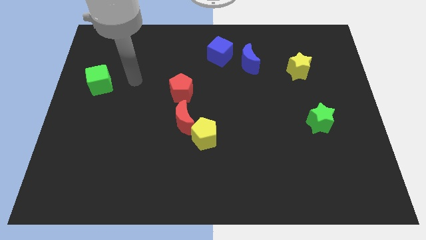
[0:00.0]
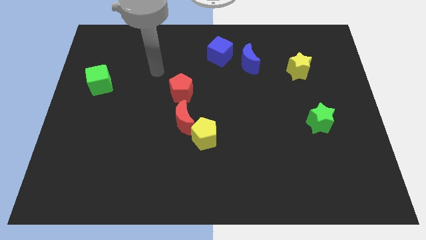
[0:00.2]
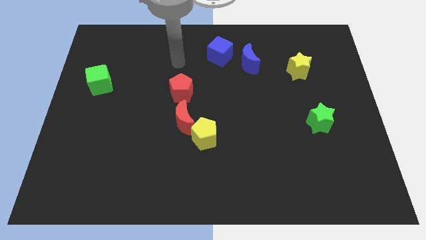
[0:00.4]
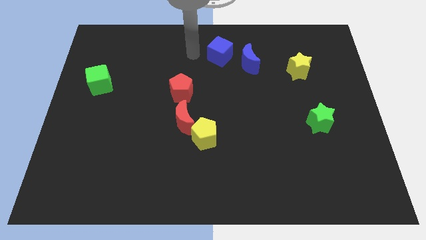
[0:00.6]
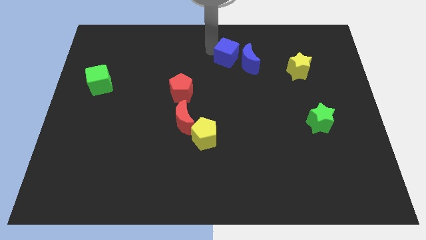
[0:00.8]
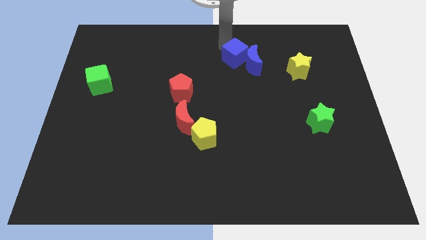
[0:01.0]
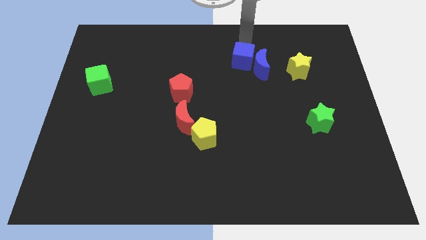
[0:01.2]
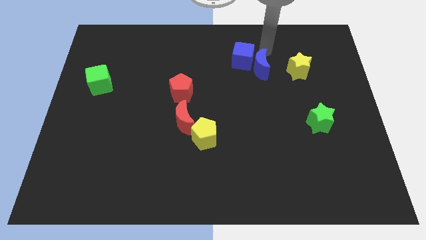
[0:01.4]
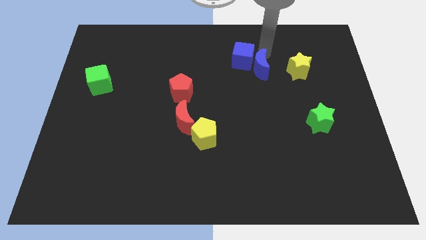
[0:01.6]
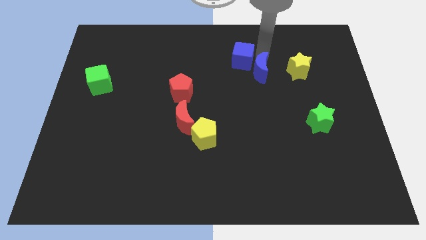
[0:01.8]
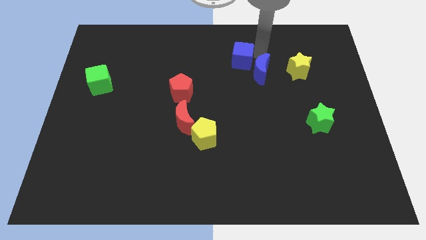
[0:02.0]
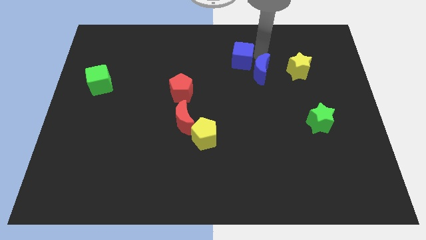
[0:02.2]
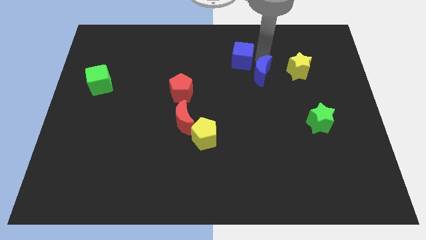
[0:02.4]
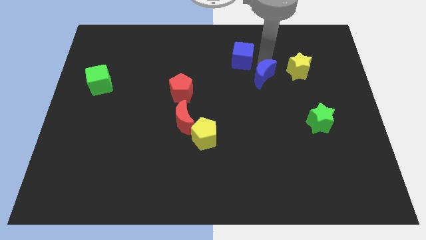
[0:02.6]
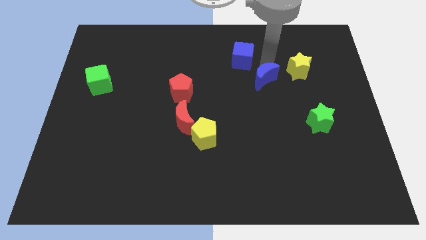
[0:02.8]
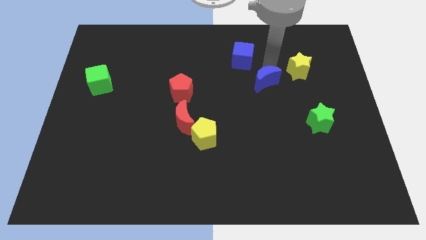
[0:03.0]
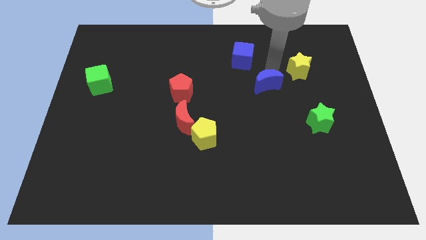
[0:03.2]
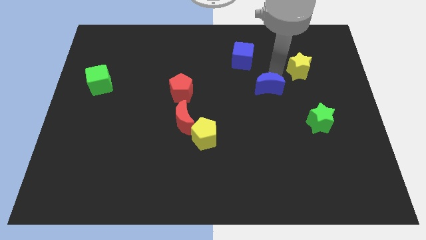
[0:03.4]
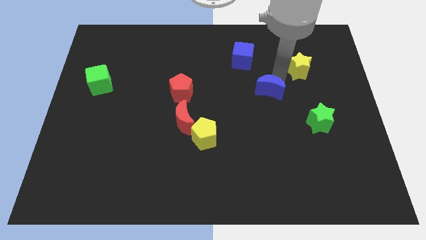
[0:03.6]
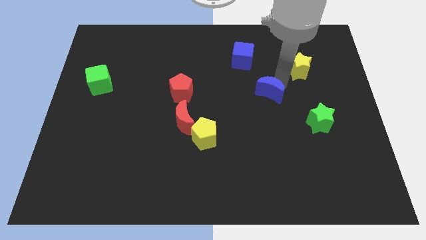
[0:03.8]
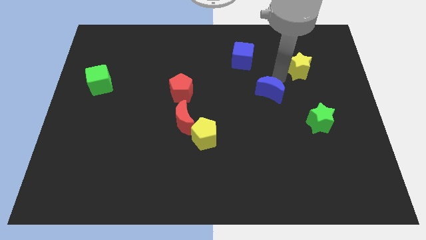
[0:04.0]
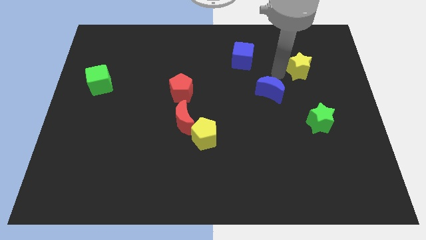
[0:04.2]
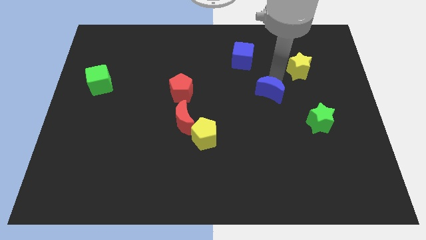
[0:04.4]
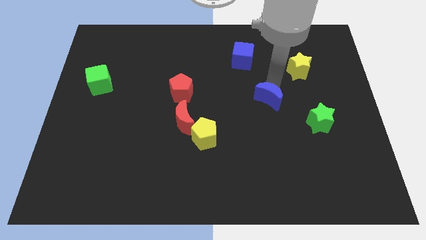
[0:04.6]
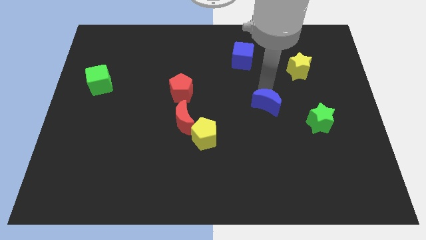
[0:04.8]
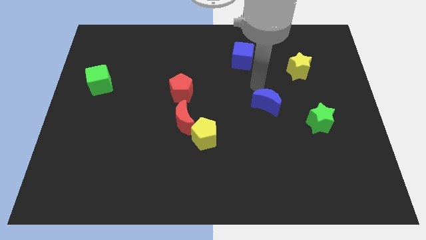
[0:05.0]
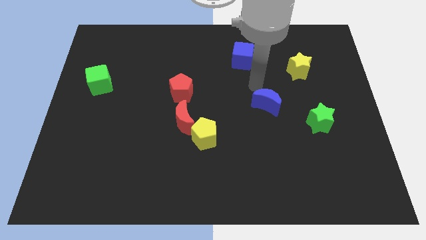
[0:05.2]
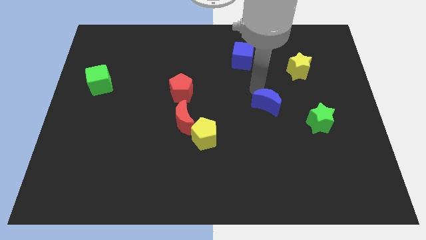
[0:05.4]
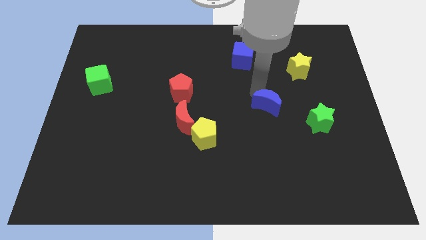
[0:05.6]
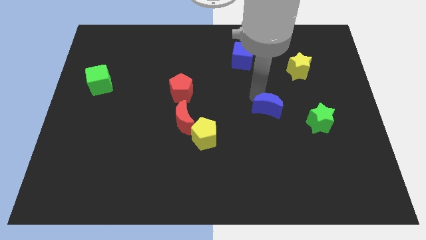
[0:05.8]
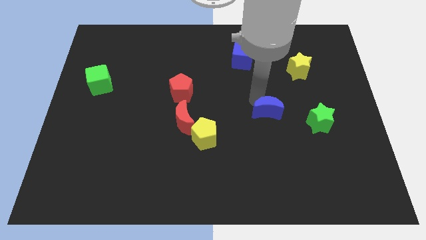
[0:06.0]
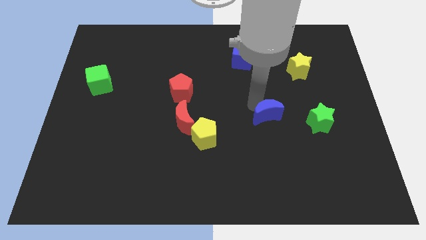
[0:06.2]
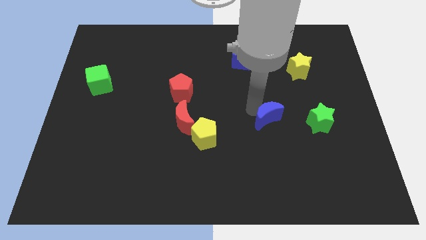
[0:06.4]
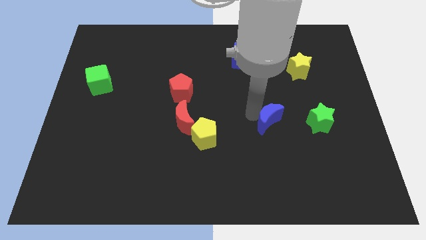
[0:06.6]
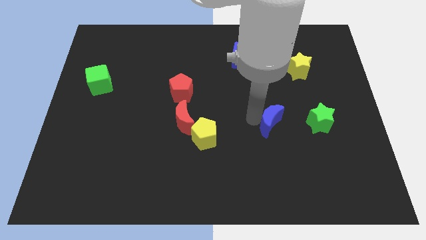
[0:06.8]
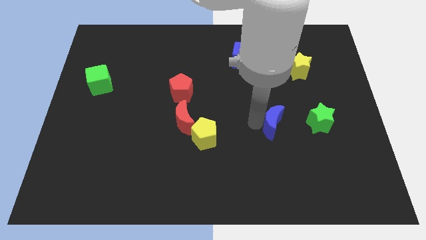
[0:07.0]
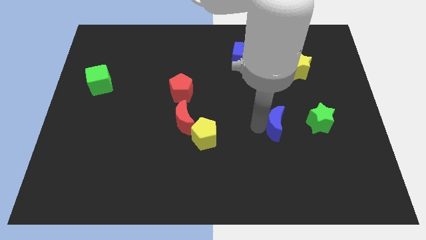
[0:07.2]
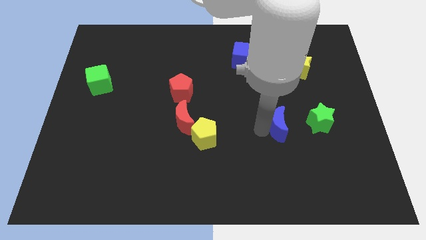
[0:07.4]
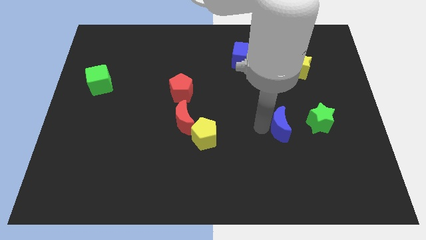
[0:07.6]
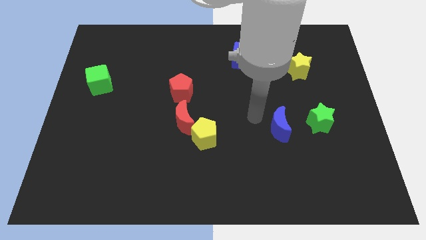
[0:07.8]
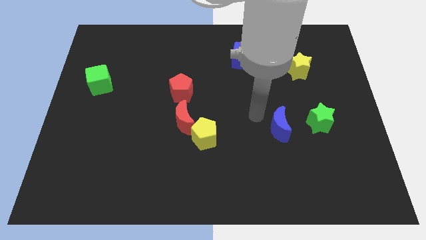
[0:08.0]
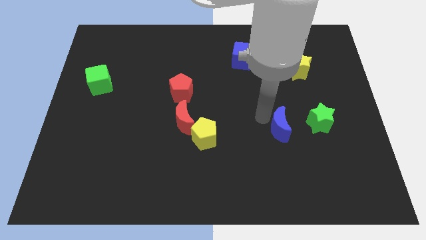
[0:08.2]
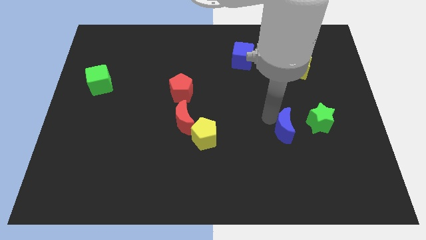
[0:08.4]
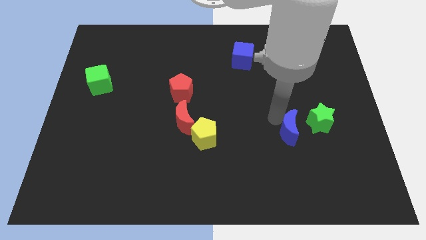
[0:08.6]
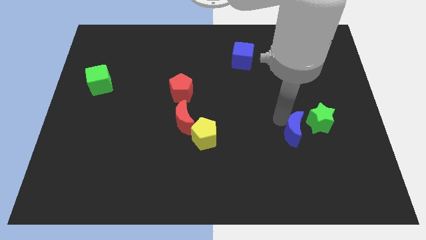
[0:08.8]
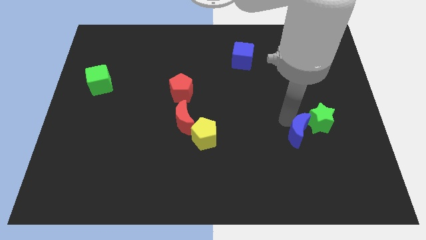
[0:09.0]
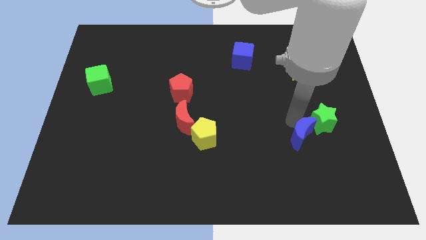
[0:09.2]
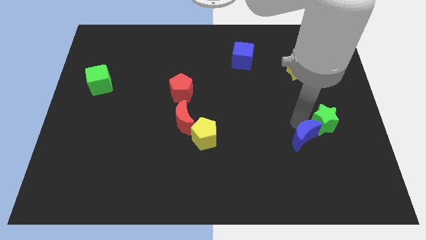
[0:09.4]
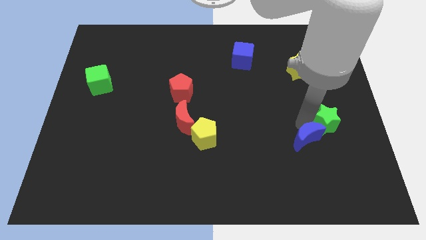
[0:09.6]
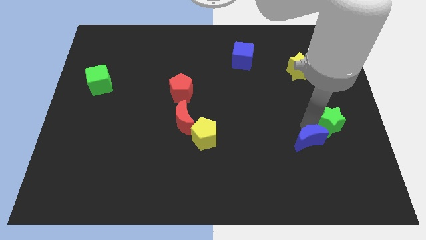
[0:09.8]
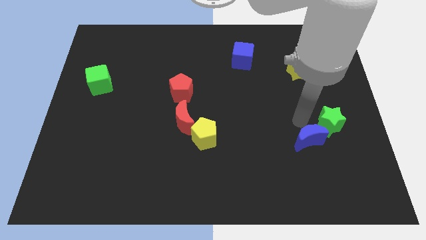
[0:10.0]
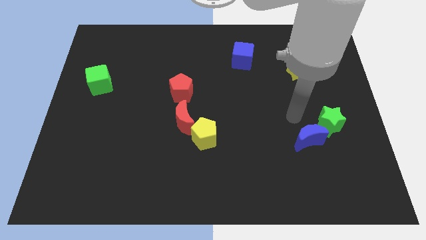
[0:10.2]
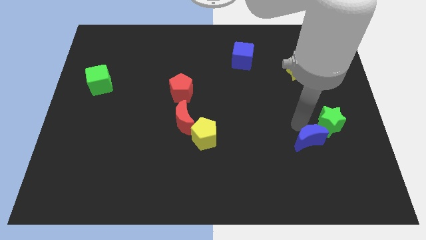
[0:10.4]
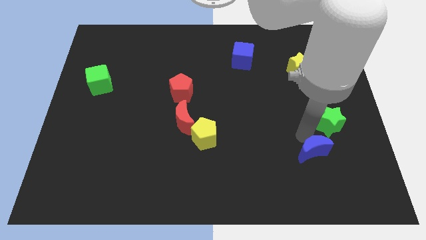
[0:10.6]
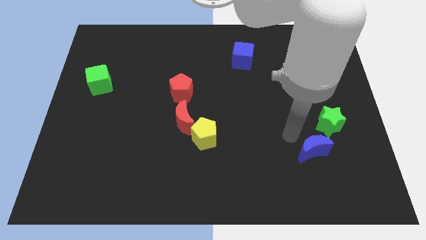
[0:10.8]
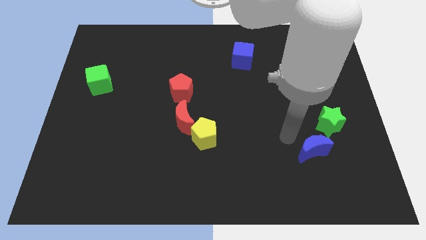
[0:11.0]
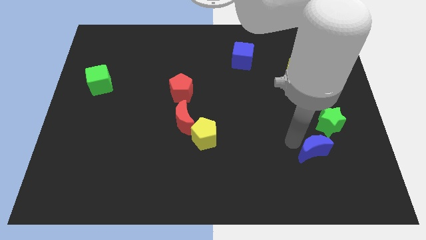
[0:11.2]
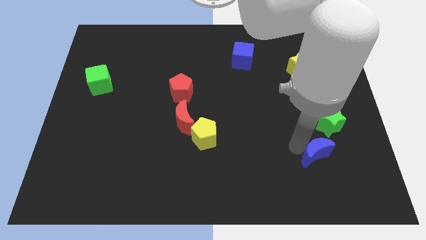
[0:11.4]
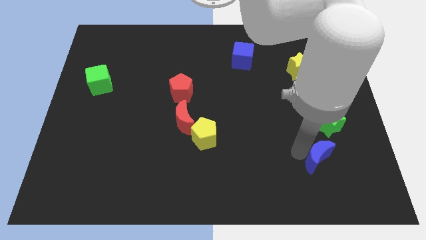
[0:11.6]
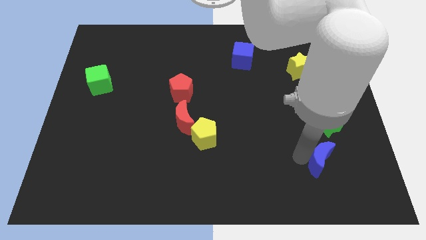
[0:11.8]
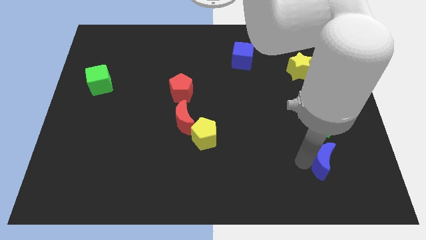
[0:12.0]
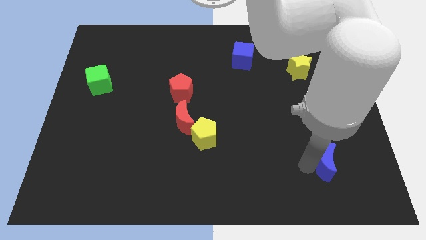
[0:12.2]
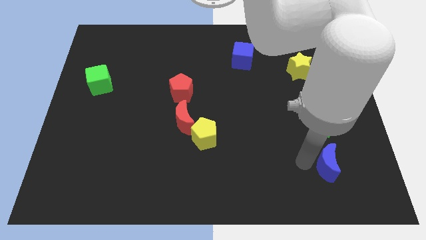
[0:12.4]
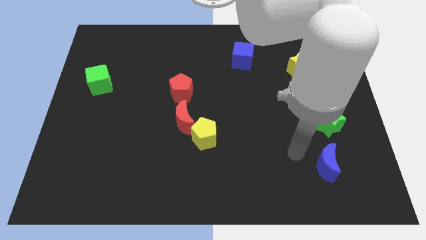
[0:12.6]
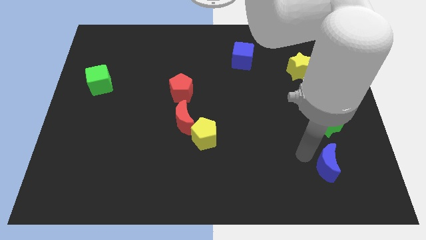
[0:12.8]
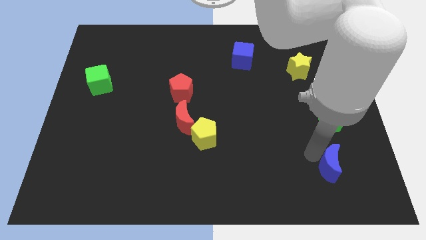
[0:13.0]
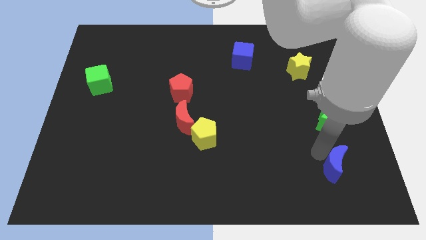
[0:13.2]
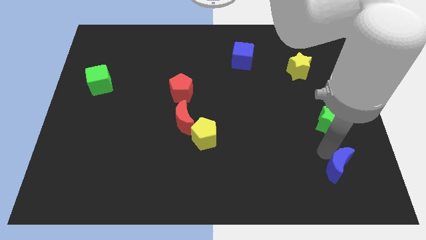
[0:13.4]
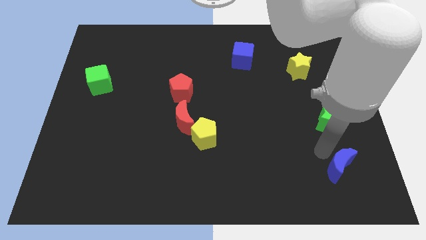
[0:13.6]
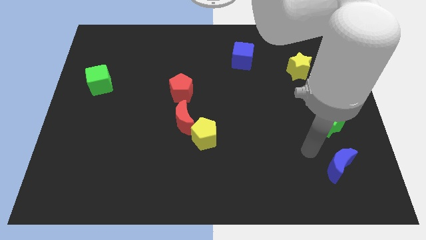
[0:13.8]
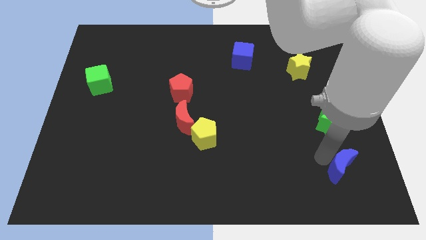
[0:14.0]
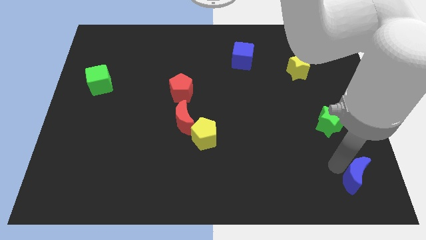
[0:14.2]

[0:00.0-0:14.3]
put the blue moon to the bottom right corner

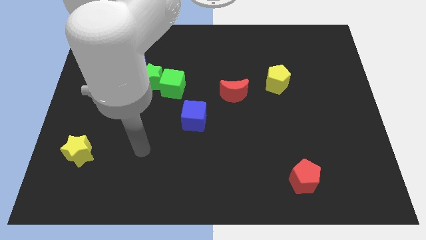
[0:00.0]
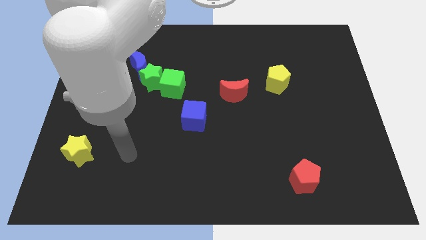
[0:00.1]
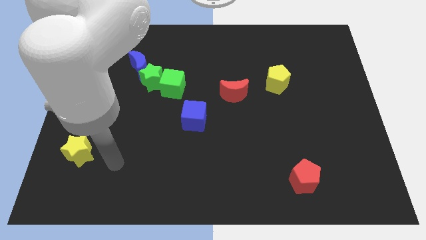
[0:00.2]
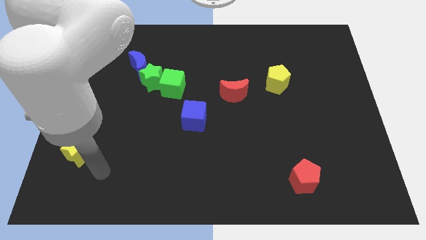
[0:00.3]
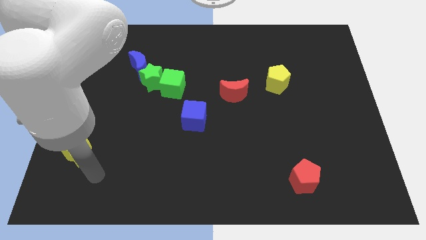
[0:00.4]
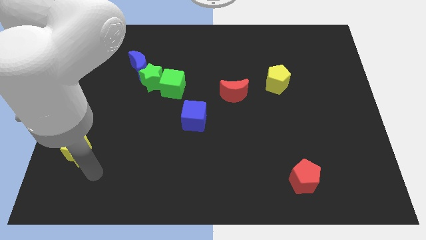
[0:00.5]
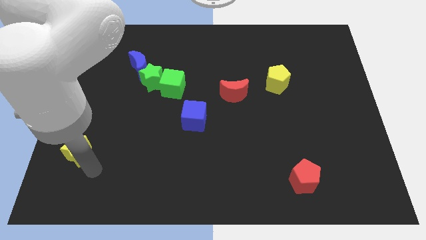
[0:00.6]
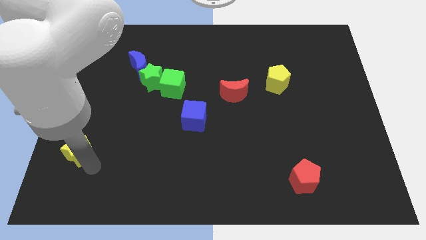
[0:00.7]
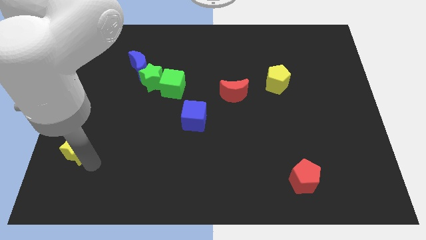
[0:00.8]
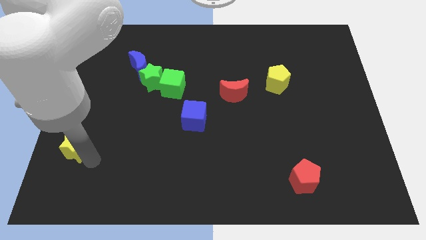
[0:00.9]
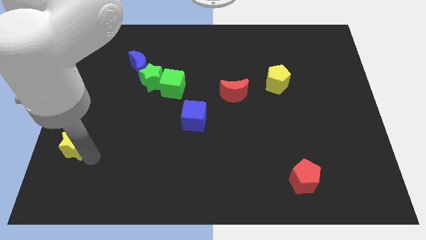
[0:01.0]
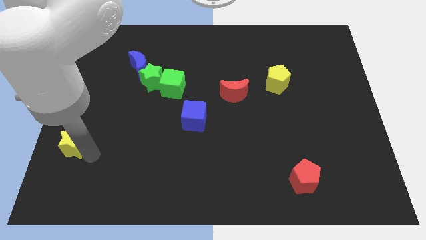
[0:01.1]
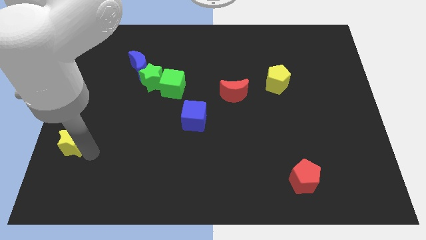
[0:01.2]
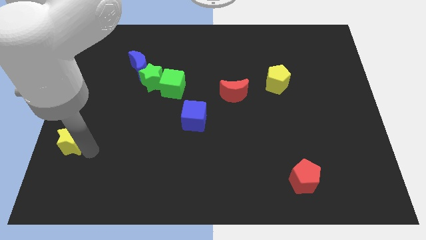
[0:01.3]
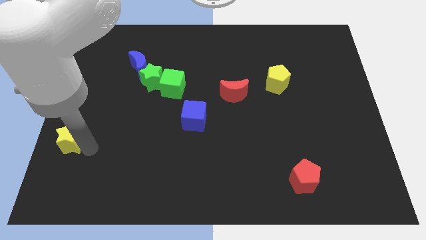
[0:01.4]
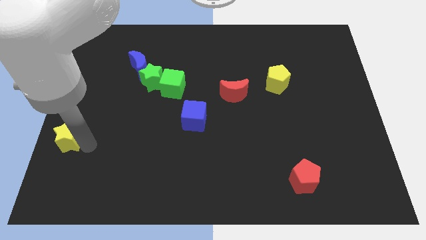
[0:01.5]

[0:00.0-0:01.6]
slide the yellow star to the left side of the board
